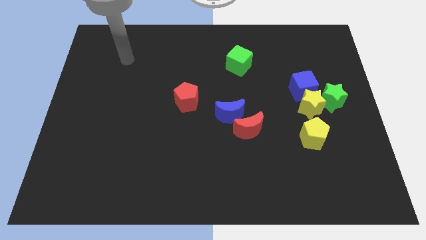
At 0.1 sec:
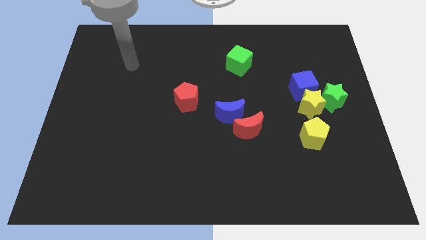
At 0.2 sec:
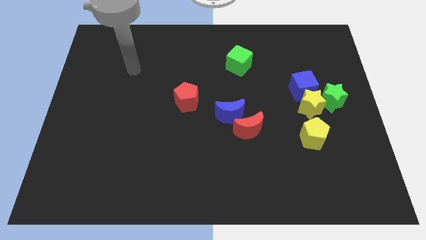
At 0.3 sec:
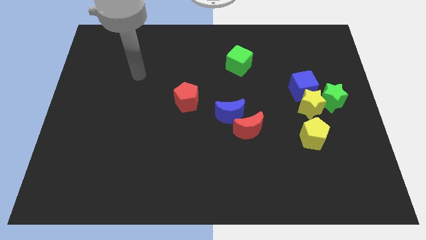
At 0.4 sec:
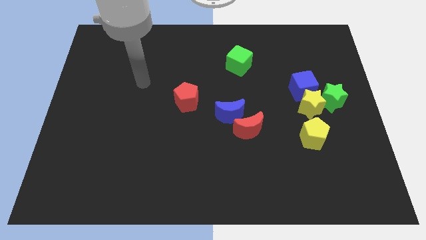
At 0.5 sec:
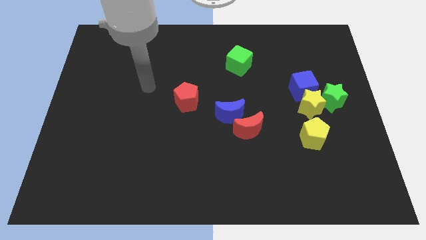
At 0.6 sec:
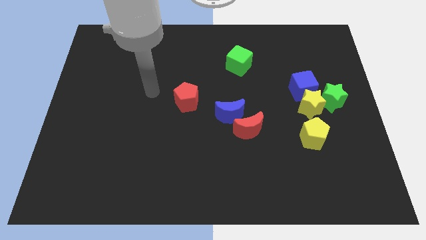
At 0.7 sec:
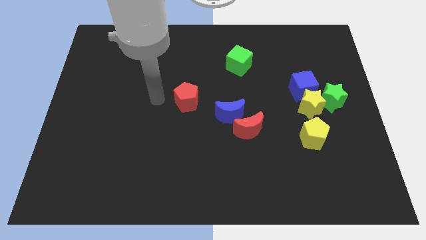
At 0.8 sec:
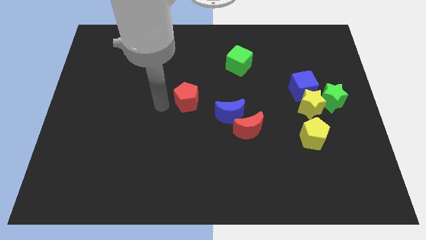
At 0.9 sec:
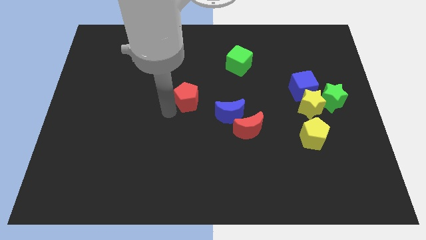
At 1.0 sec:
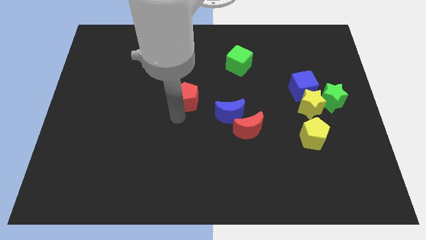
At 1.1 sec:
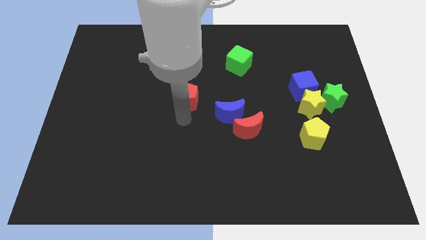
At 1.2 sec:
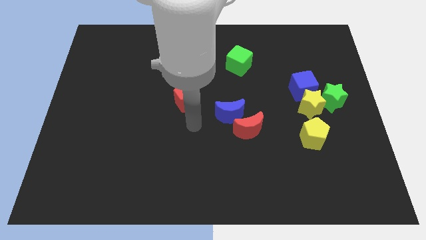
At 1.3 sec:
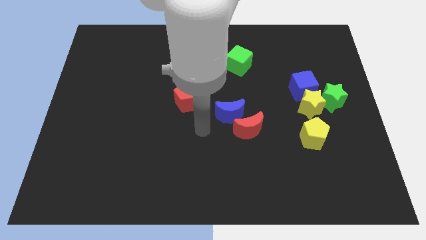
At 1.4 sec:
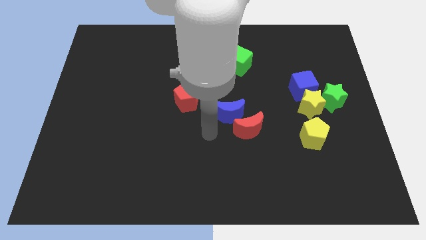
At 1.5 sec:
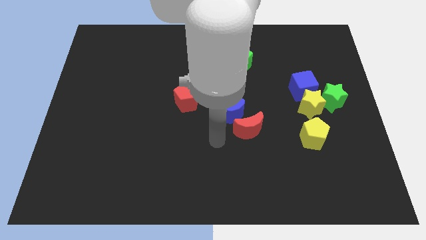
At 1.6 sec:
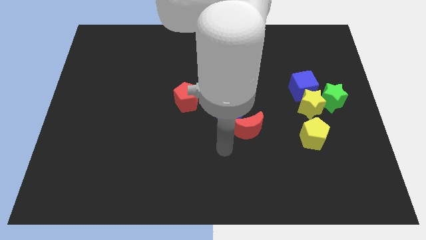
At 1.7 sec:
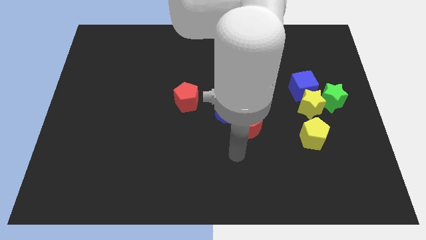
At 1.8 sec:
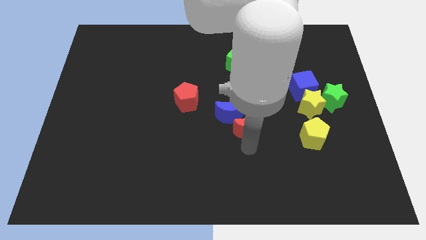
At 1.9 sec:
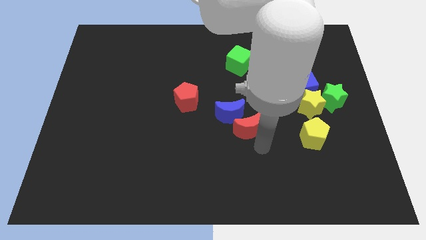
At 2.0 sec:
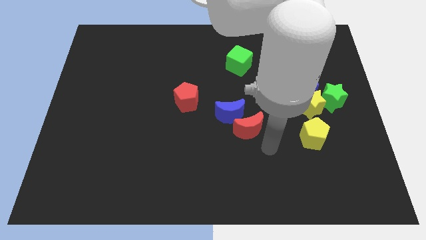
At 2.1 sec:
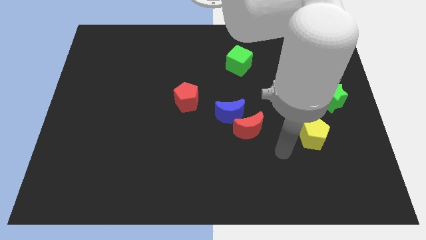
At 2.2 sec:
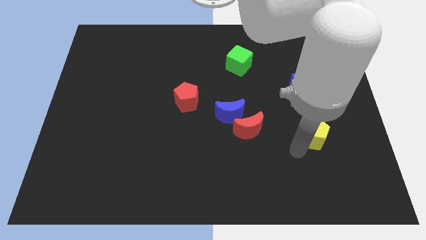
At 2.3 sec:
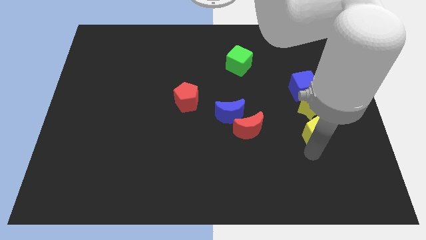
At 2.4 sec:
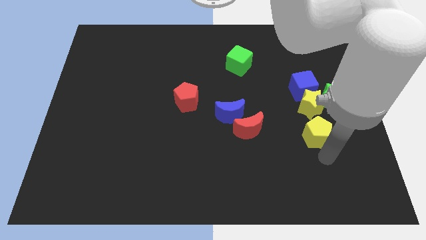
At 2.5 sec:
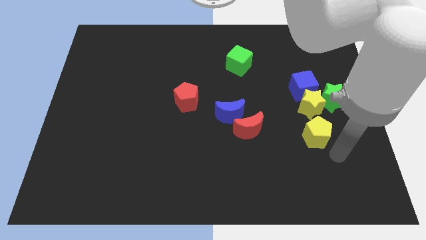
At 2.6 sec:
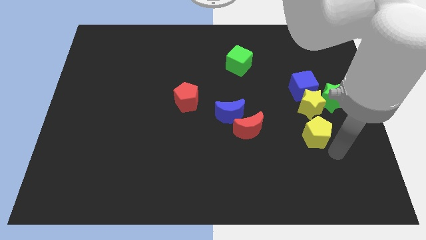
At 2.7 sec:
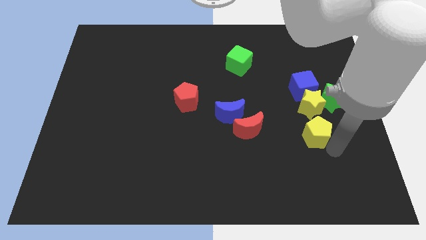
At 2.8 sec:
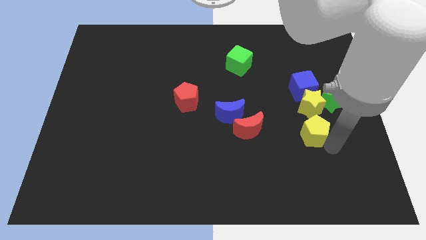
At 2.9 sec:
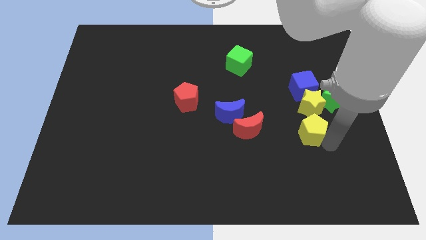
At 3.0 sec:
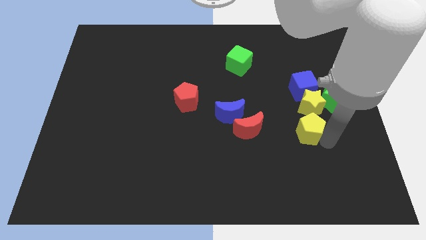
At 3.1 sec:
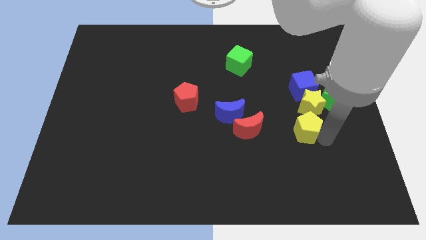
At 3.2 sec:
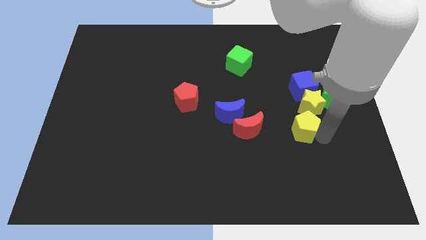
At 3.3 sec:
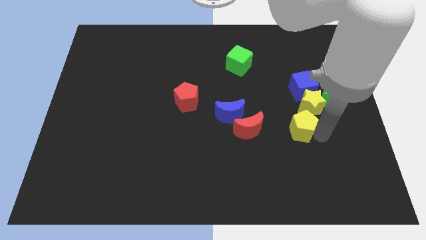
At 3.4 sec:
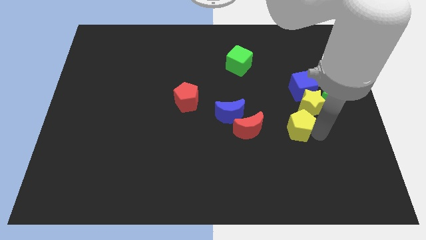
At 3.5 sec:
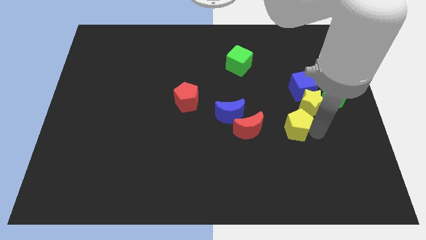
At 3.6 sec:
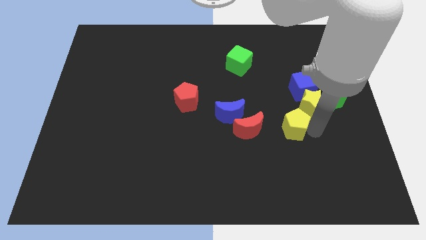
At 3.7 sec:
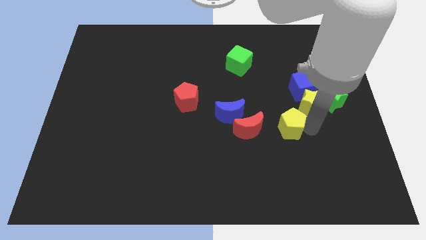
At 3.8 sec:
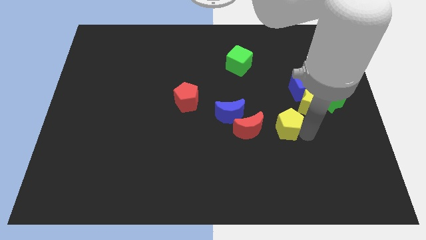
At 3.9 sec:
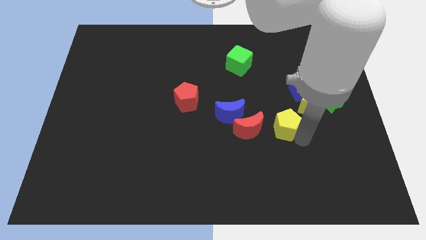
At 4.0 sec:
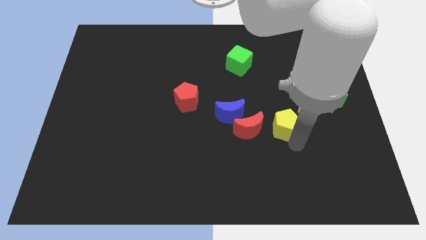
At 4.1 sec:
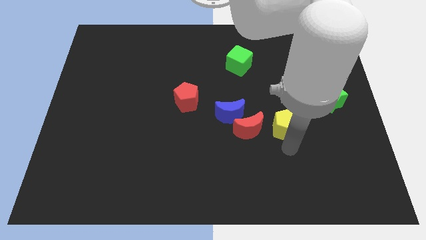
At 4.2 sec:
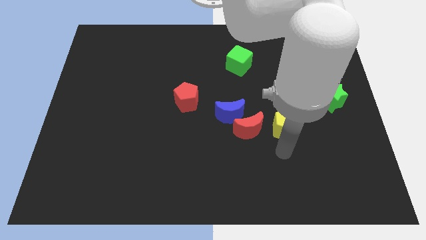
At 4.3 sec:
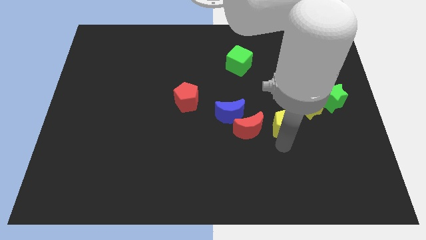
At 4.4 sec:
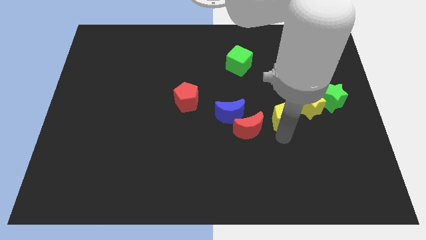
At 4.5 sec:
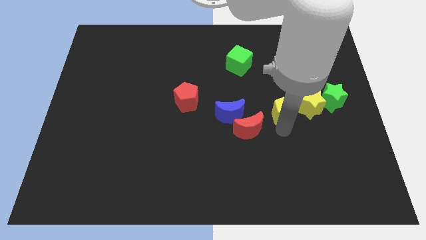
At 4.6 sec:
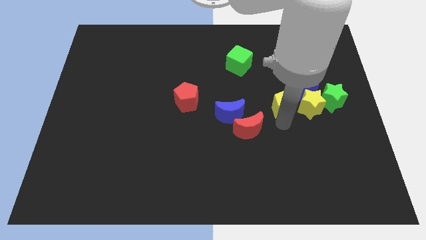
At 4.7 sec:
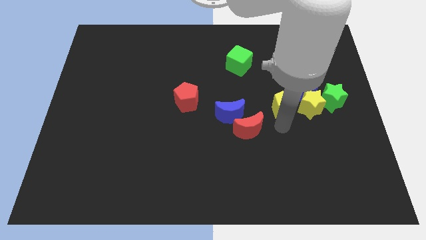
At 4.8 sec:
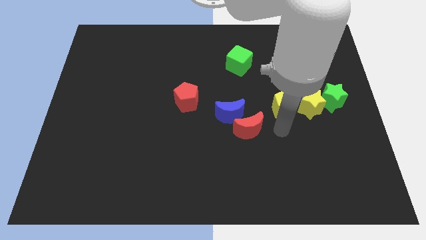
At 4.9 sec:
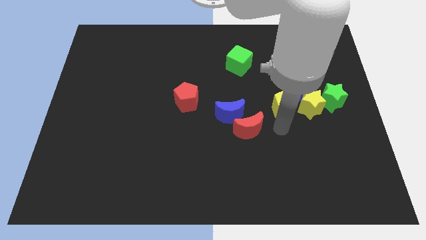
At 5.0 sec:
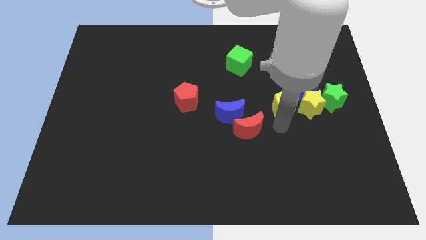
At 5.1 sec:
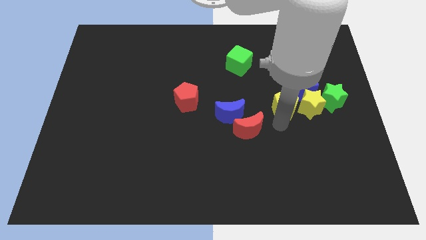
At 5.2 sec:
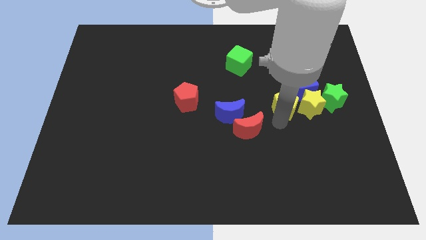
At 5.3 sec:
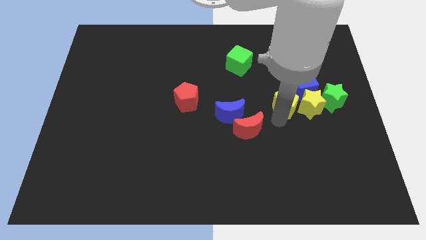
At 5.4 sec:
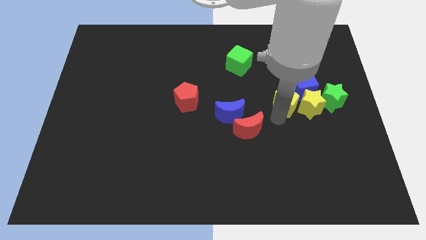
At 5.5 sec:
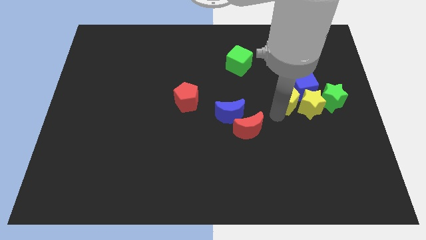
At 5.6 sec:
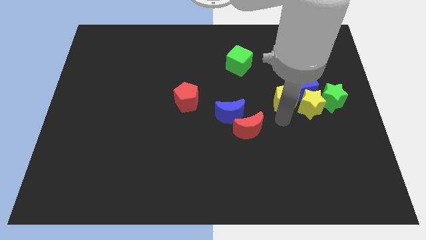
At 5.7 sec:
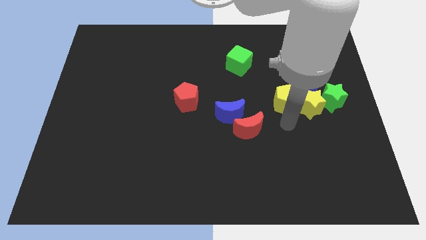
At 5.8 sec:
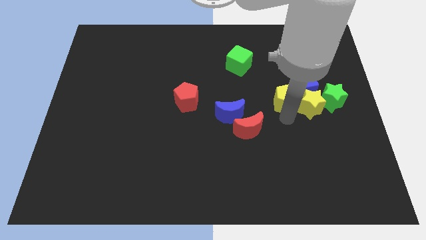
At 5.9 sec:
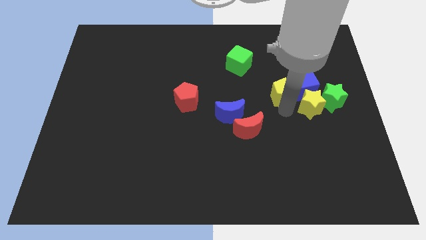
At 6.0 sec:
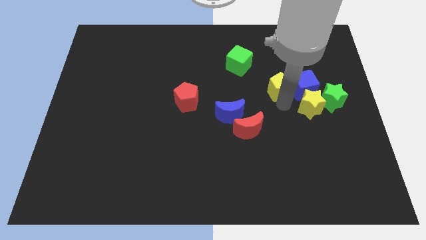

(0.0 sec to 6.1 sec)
slide the yellow pentagon to the top left side of the blue cube

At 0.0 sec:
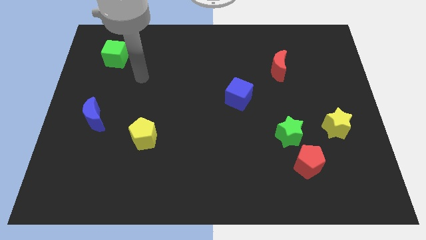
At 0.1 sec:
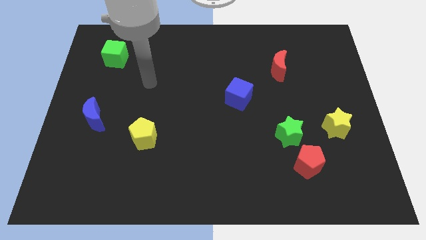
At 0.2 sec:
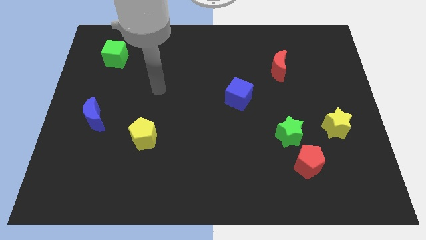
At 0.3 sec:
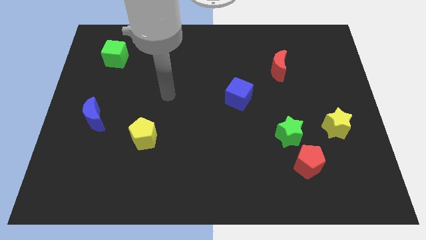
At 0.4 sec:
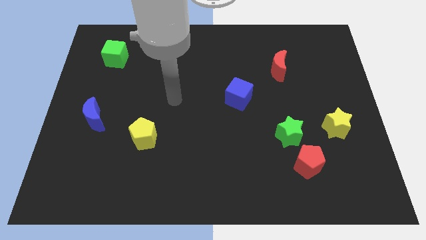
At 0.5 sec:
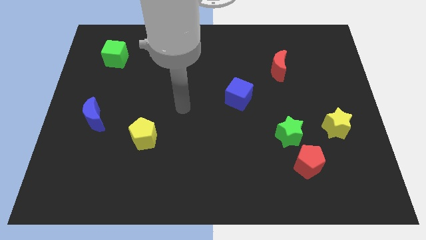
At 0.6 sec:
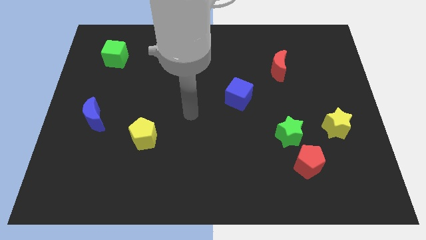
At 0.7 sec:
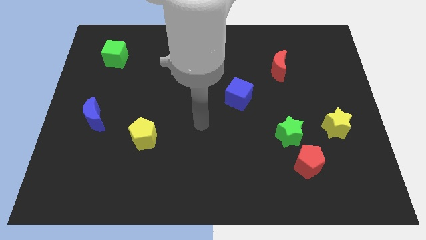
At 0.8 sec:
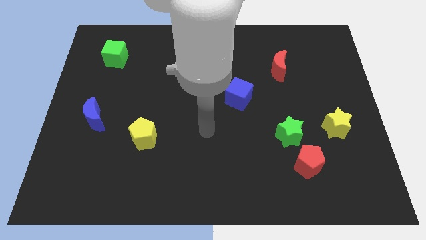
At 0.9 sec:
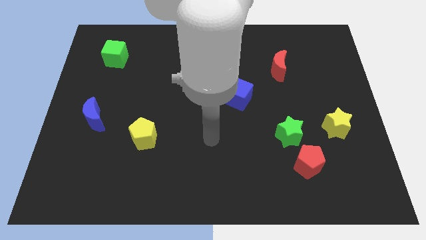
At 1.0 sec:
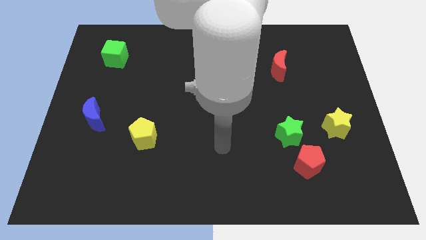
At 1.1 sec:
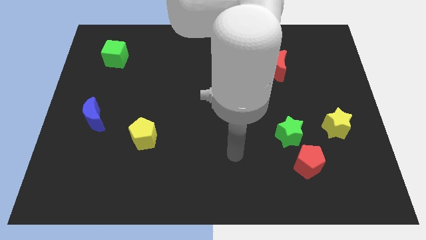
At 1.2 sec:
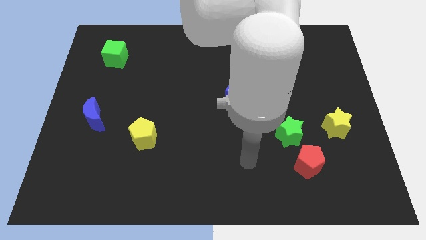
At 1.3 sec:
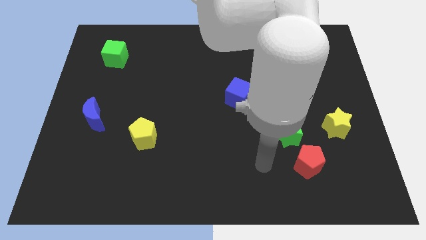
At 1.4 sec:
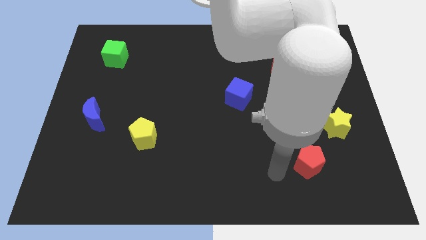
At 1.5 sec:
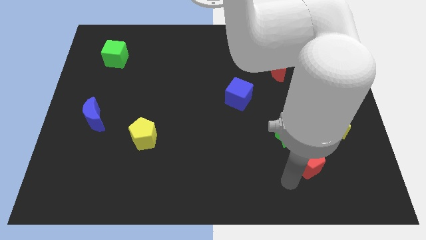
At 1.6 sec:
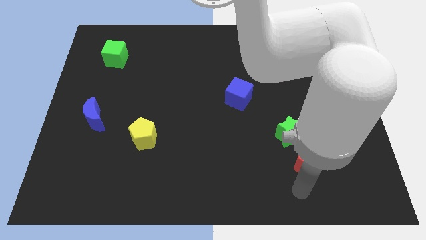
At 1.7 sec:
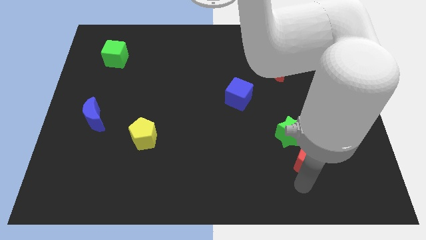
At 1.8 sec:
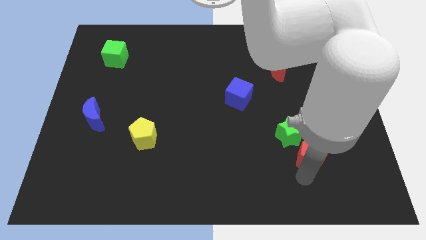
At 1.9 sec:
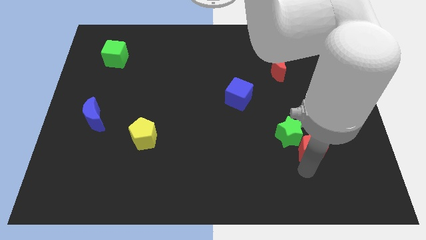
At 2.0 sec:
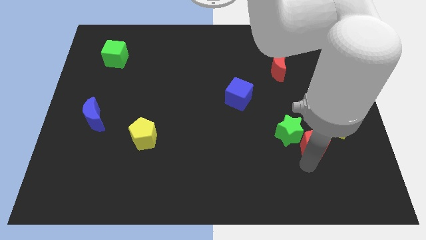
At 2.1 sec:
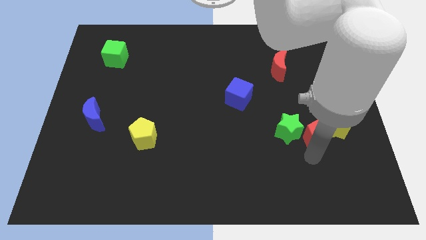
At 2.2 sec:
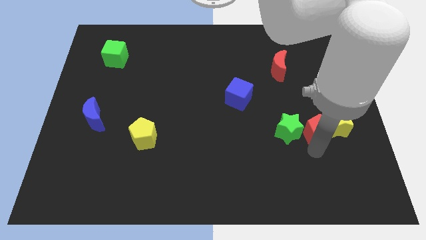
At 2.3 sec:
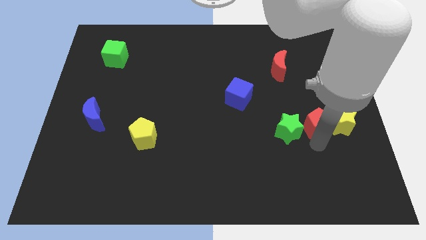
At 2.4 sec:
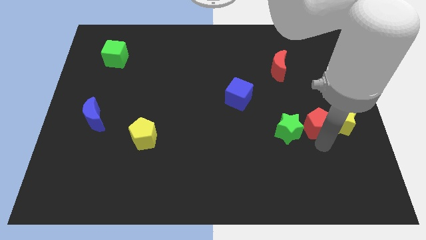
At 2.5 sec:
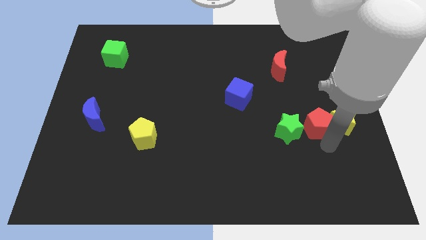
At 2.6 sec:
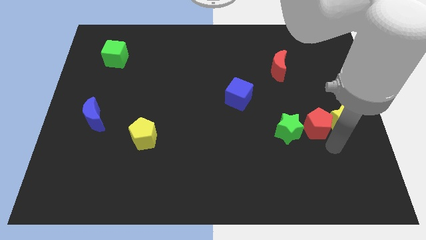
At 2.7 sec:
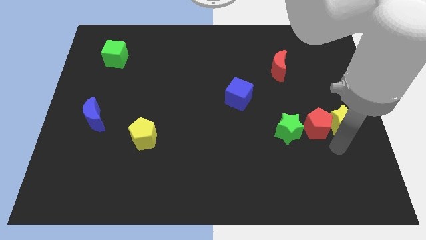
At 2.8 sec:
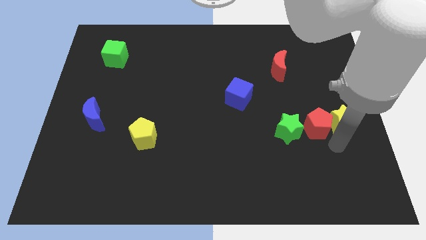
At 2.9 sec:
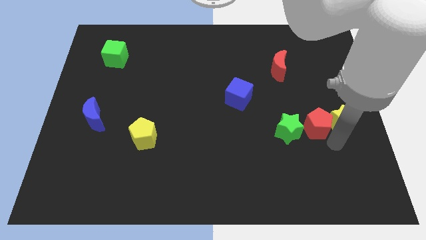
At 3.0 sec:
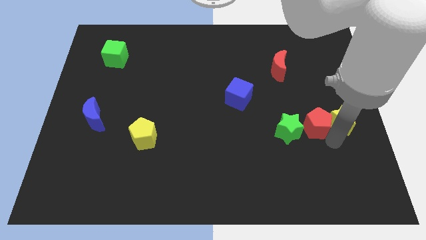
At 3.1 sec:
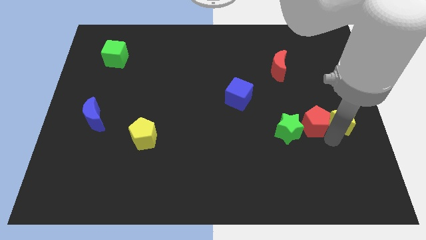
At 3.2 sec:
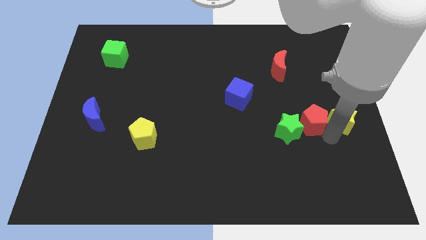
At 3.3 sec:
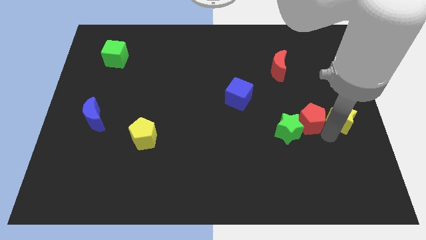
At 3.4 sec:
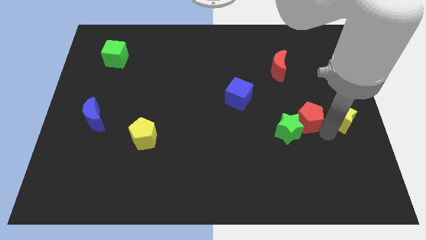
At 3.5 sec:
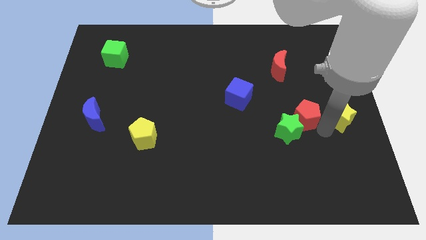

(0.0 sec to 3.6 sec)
put the red pentagon to the top of the green star
